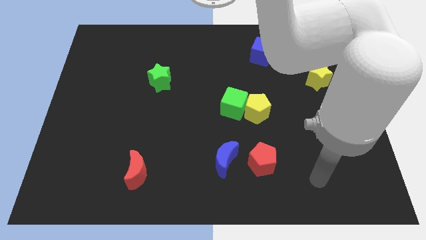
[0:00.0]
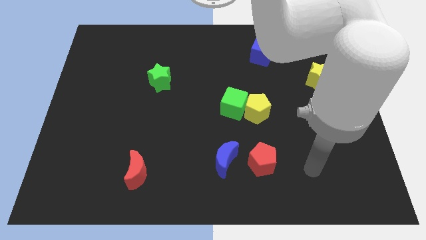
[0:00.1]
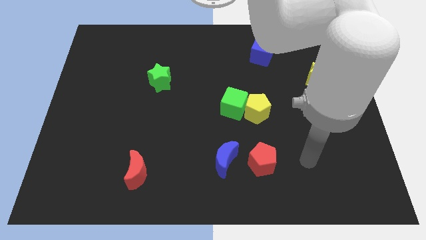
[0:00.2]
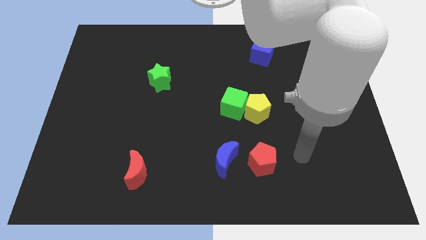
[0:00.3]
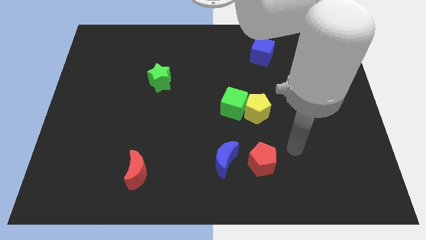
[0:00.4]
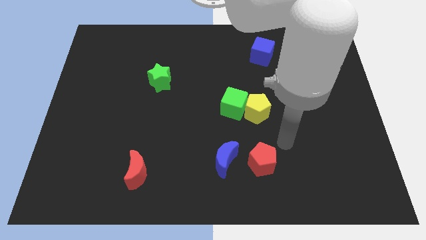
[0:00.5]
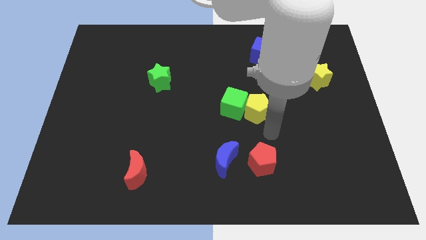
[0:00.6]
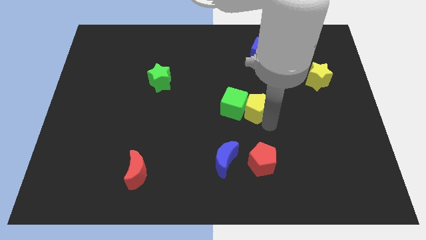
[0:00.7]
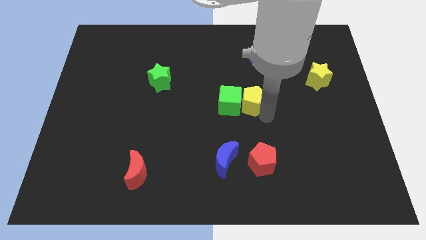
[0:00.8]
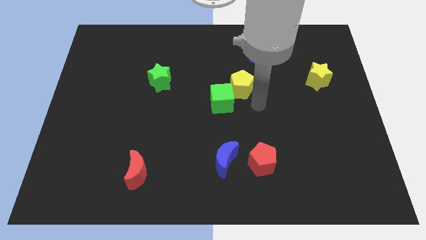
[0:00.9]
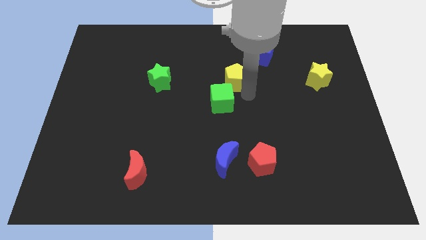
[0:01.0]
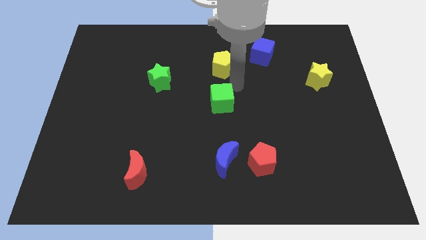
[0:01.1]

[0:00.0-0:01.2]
separate the green cube from the yellow pentagon

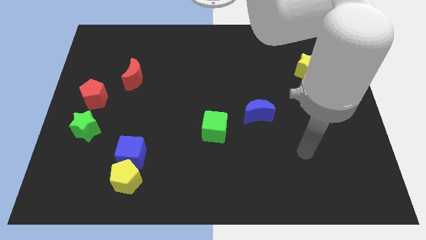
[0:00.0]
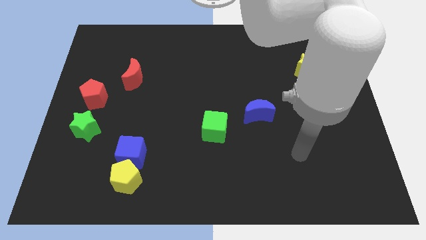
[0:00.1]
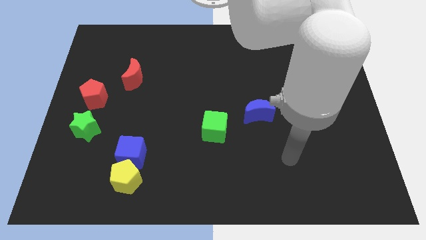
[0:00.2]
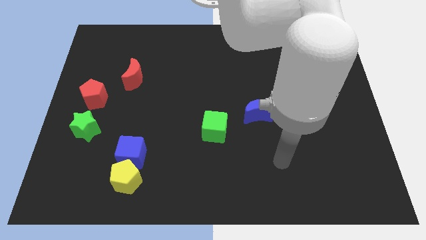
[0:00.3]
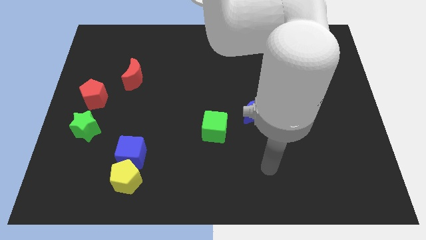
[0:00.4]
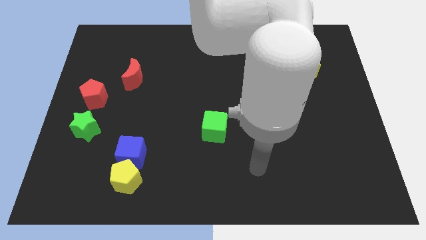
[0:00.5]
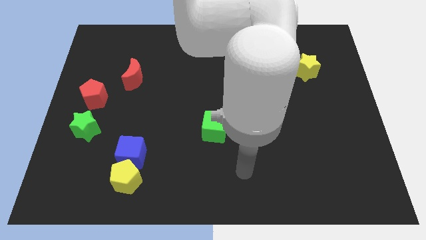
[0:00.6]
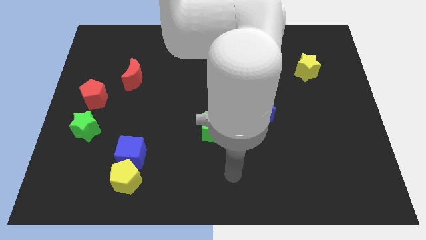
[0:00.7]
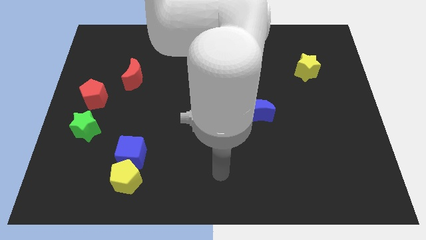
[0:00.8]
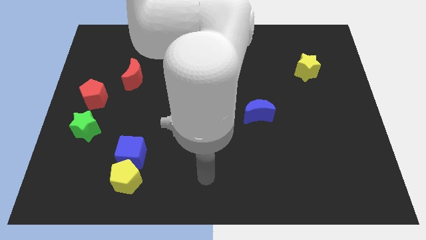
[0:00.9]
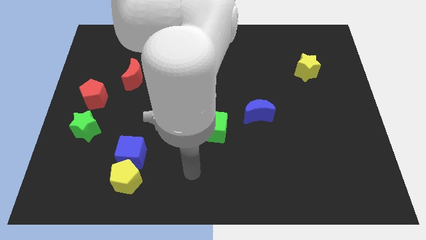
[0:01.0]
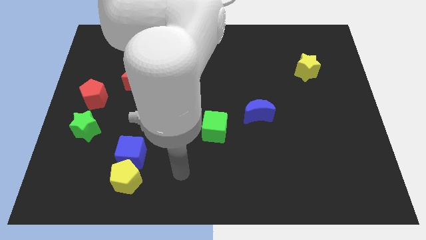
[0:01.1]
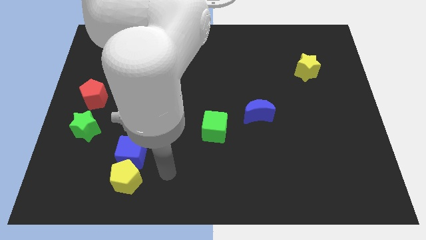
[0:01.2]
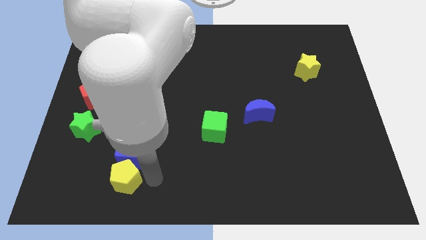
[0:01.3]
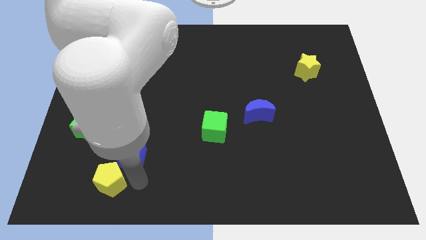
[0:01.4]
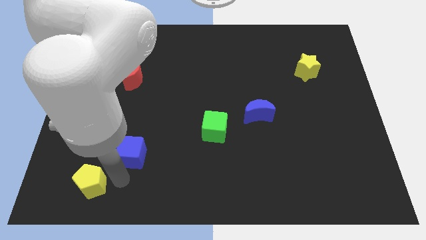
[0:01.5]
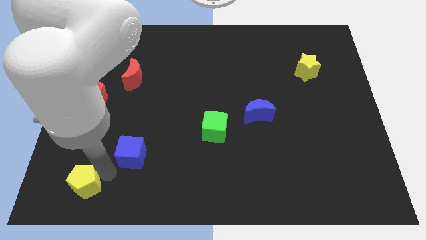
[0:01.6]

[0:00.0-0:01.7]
move the blue cube away from the yellow pentagon

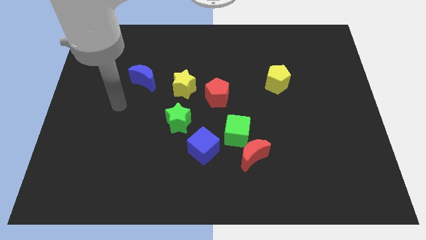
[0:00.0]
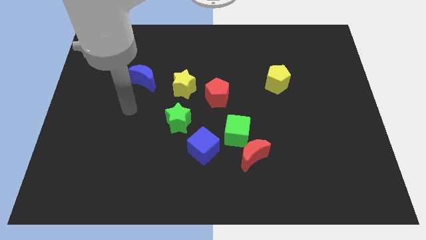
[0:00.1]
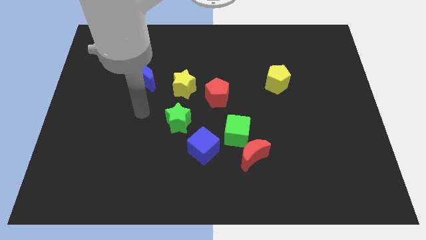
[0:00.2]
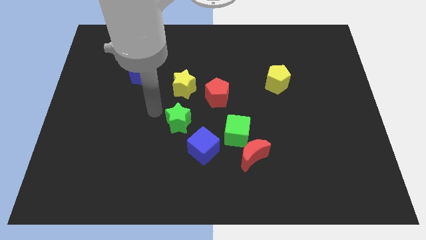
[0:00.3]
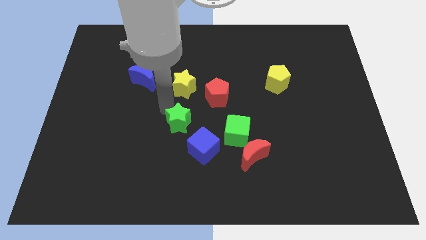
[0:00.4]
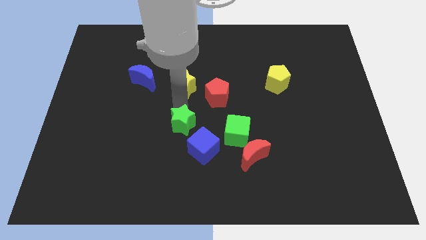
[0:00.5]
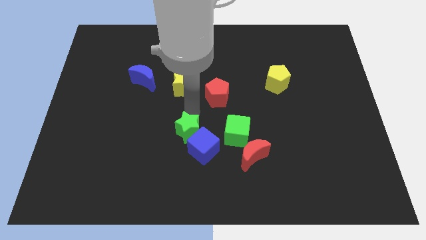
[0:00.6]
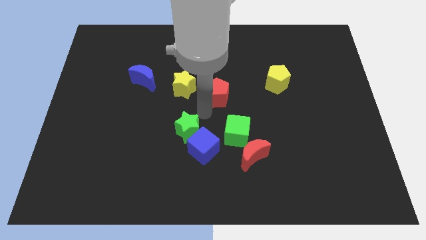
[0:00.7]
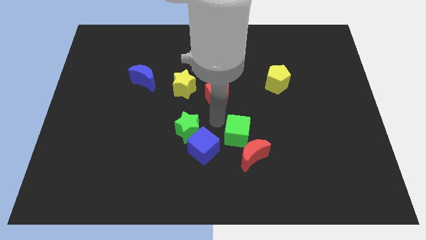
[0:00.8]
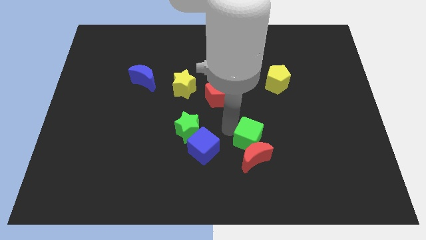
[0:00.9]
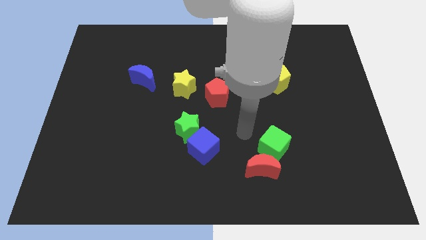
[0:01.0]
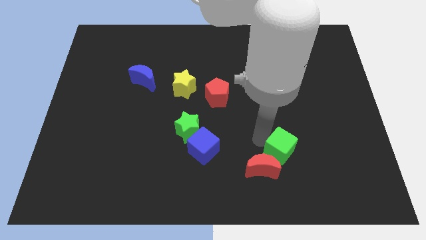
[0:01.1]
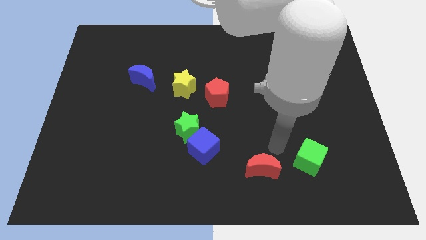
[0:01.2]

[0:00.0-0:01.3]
move the red moon away from the green cube

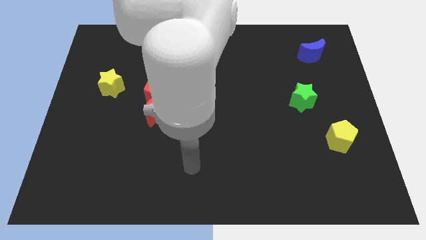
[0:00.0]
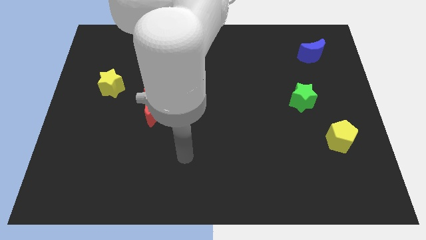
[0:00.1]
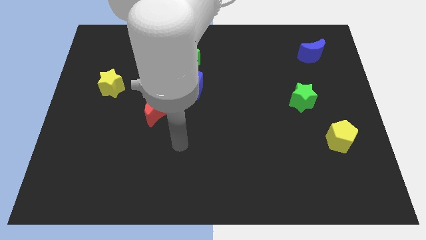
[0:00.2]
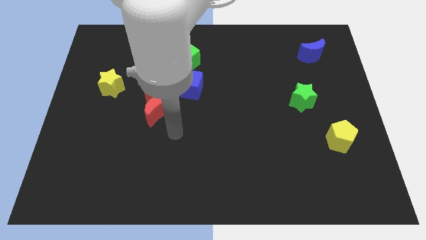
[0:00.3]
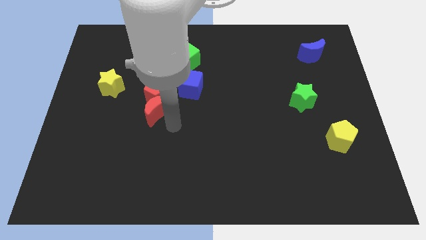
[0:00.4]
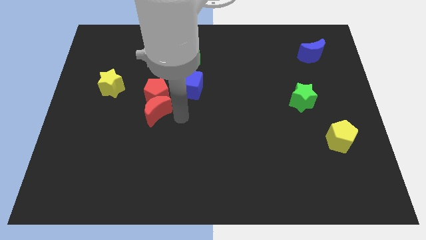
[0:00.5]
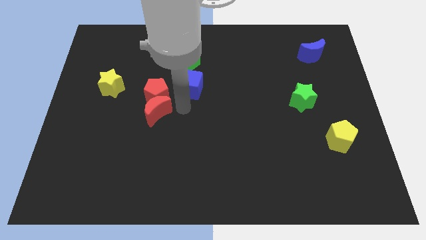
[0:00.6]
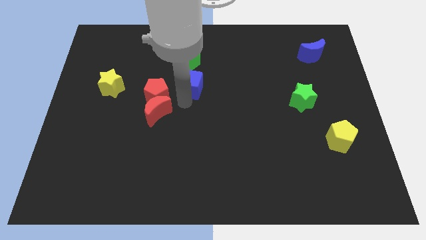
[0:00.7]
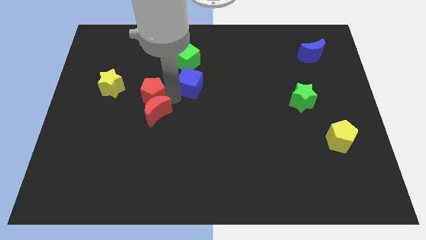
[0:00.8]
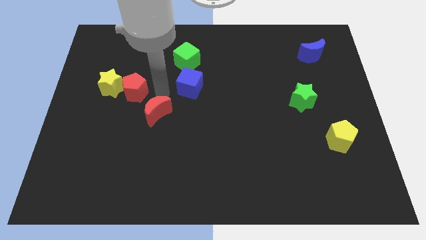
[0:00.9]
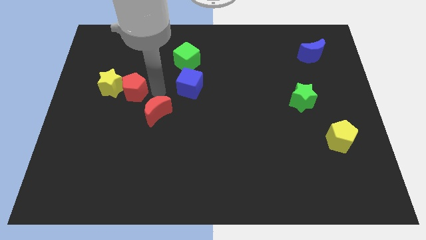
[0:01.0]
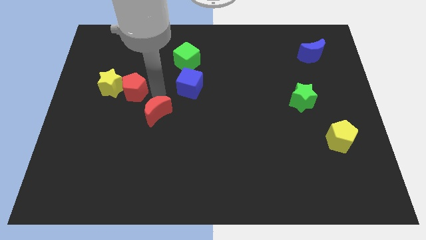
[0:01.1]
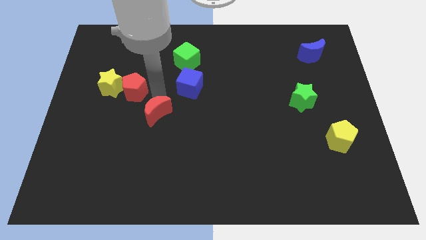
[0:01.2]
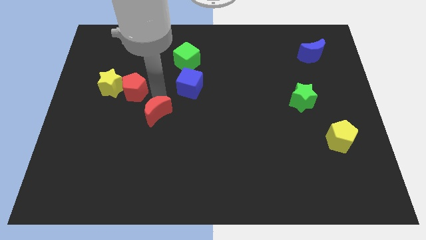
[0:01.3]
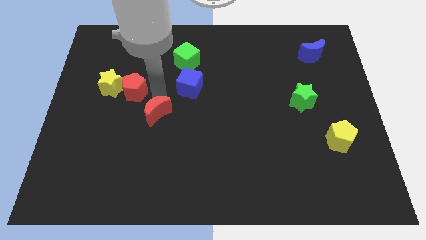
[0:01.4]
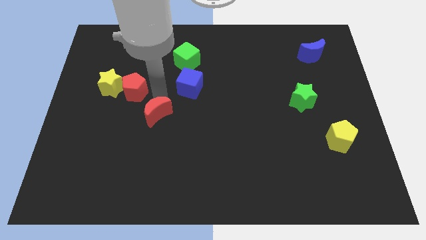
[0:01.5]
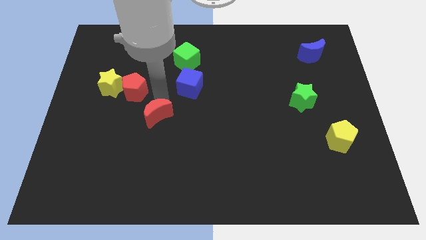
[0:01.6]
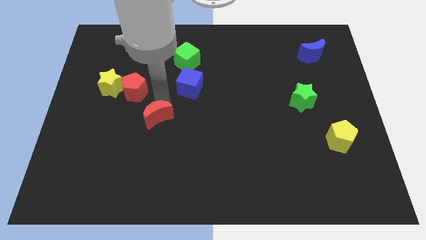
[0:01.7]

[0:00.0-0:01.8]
move the red moon away from the red pentagon

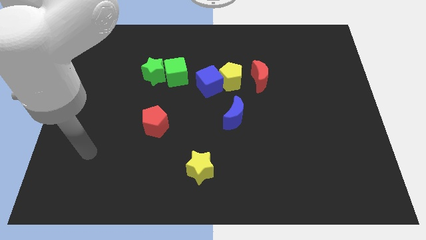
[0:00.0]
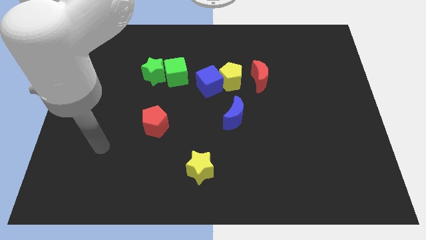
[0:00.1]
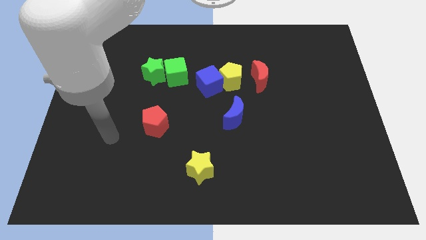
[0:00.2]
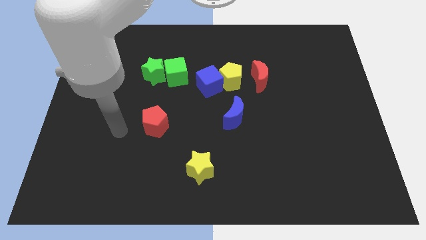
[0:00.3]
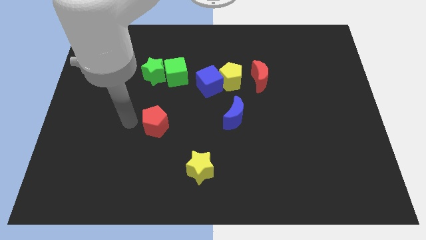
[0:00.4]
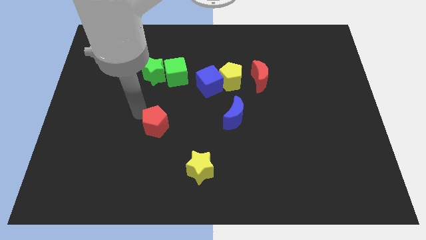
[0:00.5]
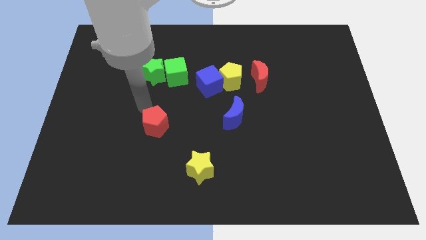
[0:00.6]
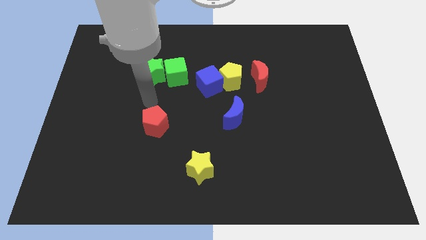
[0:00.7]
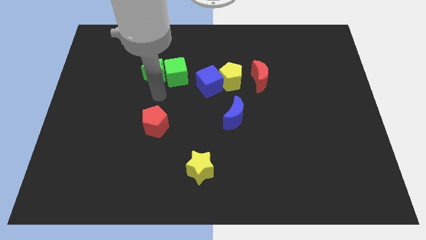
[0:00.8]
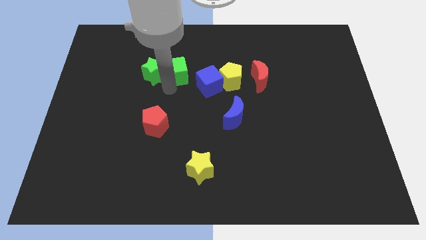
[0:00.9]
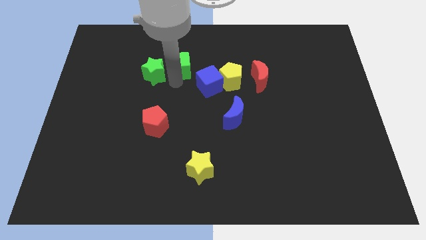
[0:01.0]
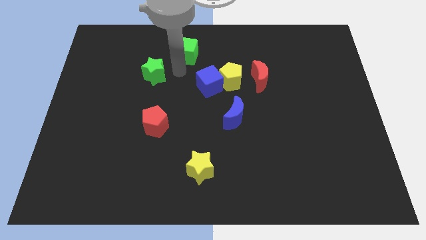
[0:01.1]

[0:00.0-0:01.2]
move the green star away from the green cube

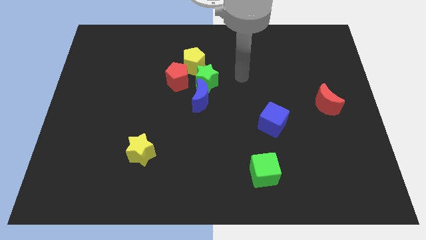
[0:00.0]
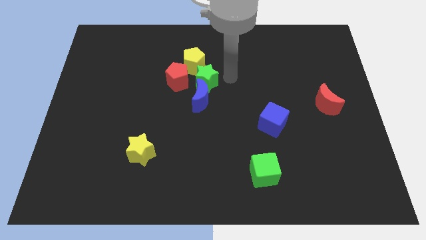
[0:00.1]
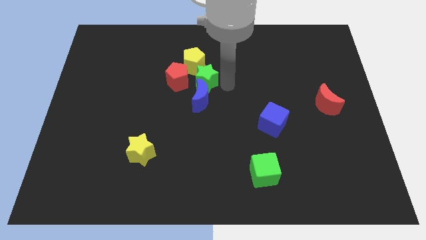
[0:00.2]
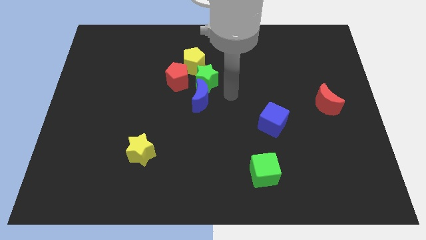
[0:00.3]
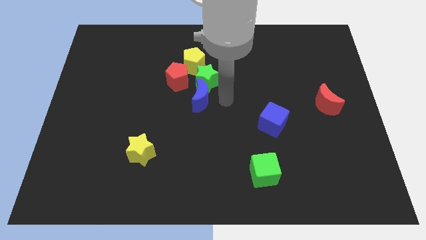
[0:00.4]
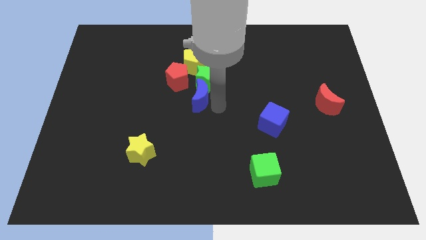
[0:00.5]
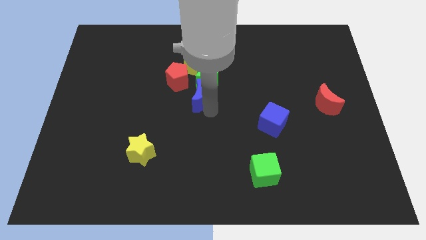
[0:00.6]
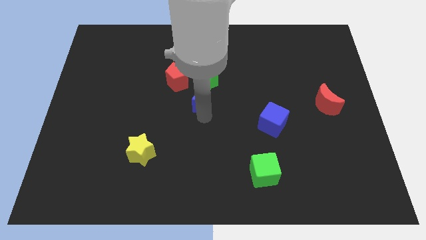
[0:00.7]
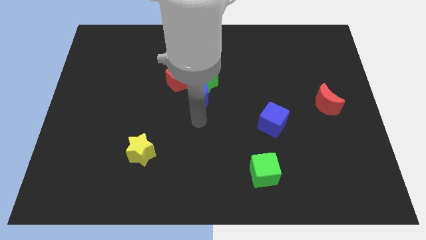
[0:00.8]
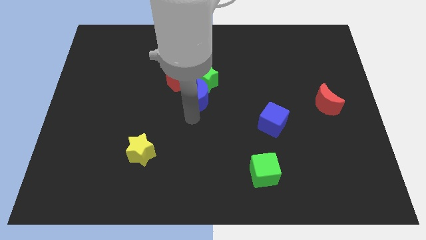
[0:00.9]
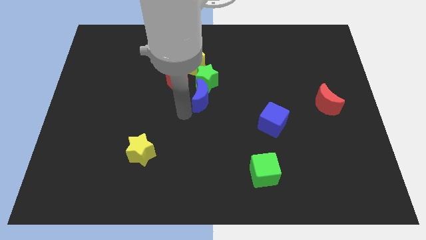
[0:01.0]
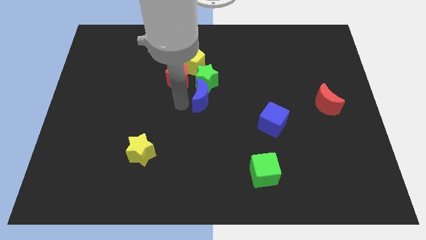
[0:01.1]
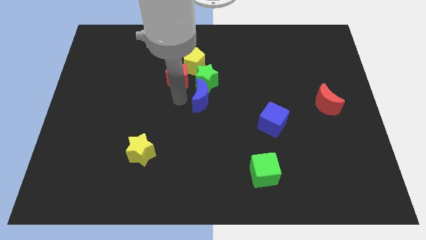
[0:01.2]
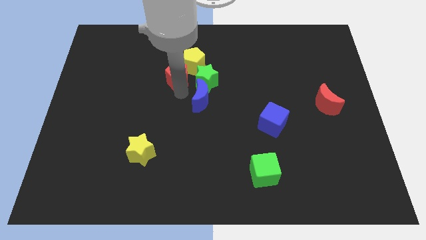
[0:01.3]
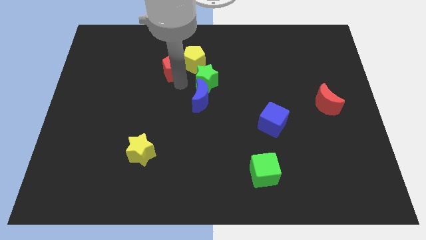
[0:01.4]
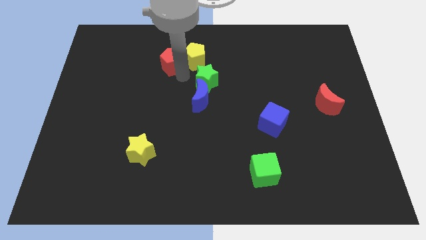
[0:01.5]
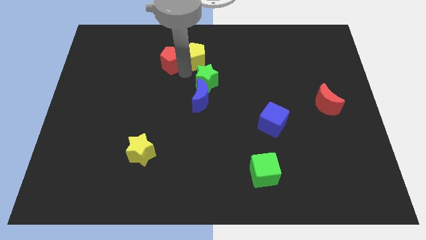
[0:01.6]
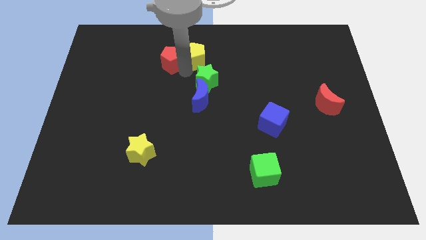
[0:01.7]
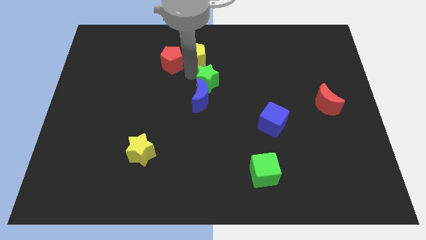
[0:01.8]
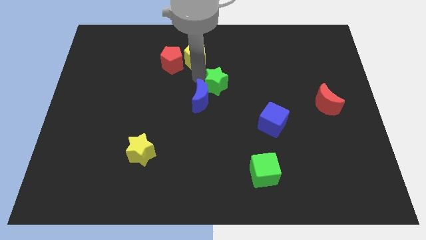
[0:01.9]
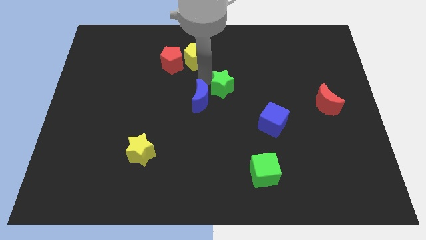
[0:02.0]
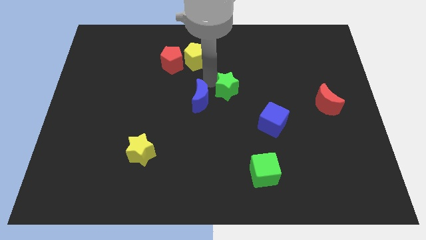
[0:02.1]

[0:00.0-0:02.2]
move the green star away from the blue moon, yellow pentagon, and red pentagon
